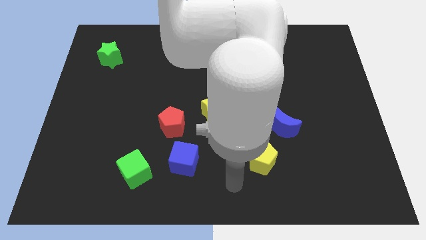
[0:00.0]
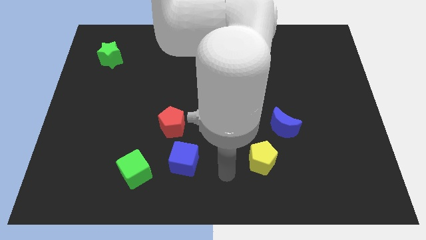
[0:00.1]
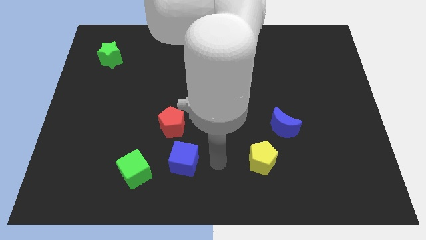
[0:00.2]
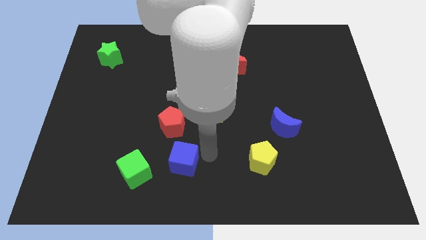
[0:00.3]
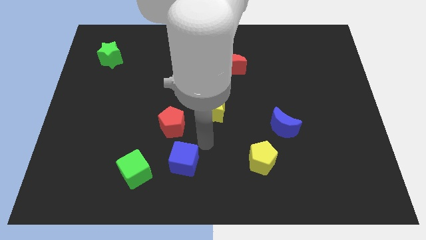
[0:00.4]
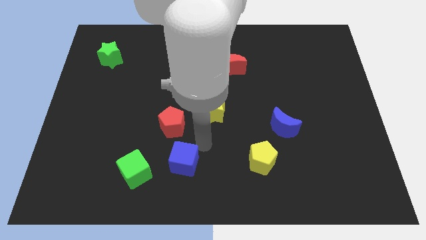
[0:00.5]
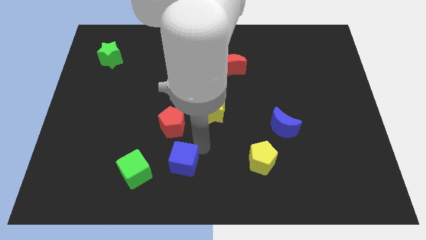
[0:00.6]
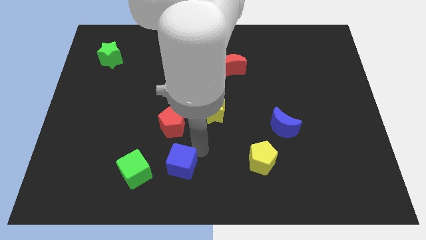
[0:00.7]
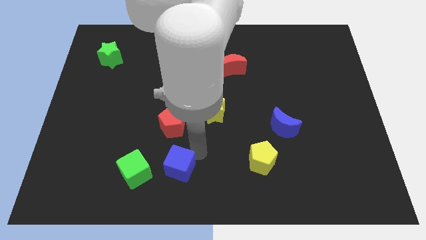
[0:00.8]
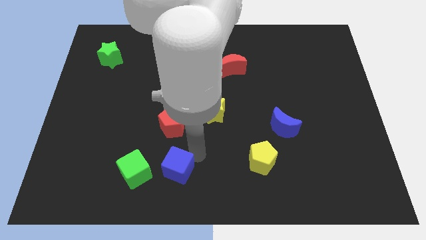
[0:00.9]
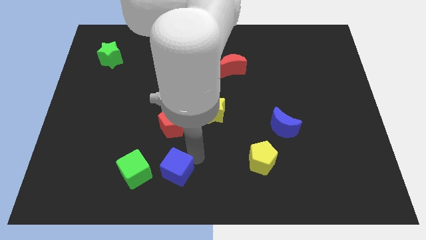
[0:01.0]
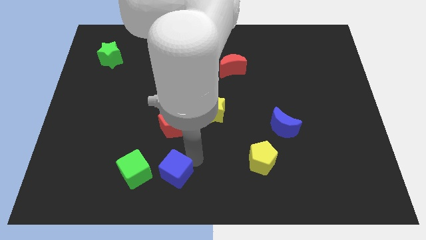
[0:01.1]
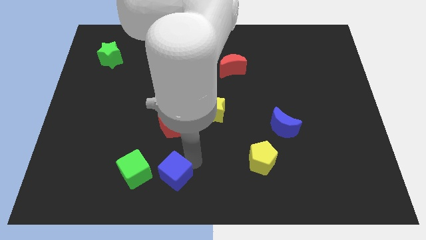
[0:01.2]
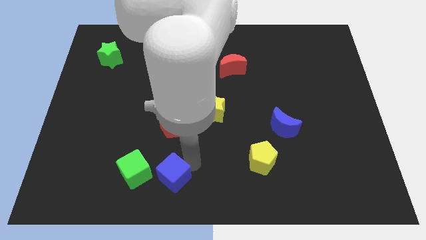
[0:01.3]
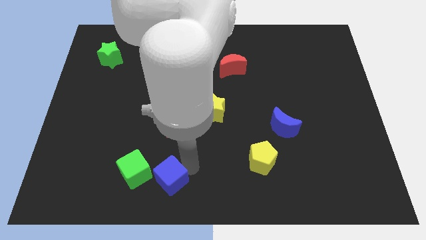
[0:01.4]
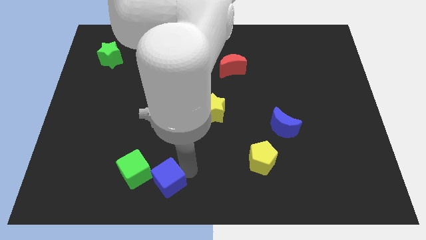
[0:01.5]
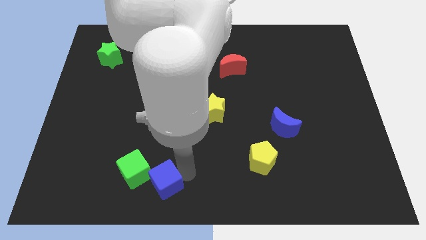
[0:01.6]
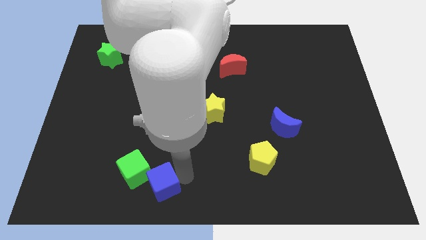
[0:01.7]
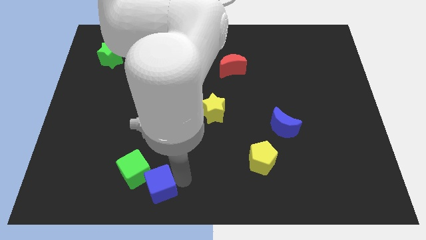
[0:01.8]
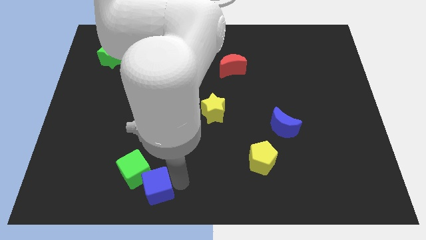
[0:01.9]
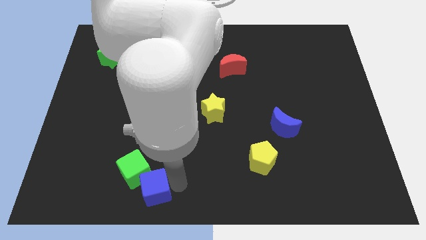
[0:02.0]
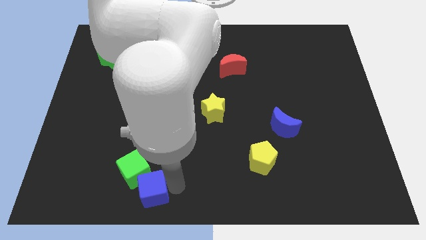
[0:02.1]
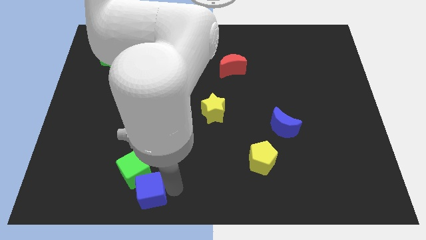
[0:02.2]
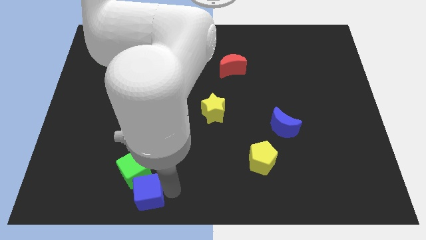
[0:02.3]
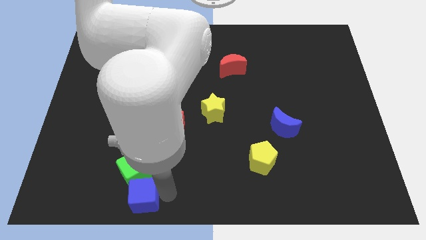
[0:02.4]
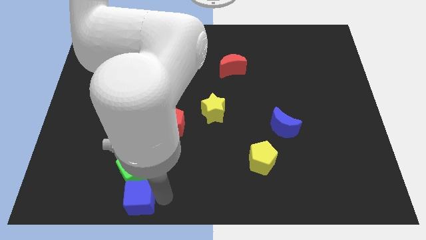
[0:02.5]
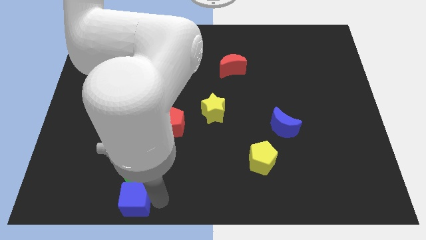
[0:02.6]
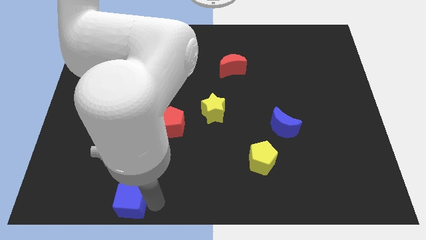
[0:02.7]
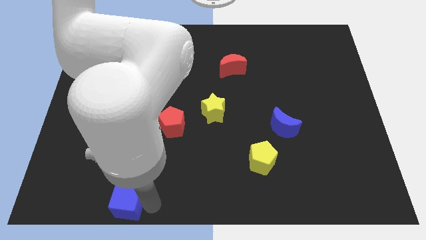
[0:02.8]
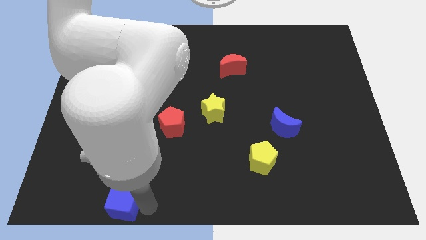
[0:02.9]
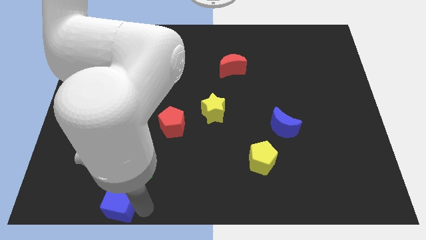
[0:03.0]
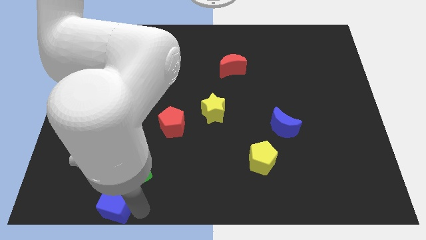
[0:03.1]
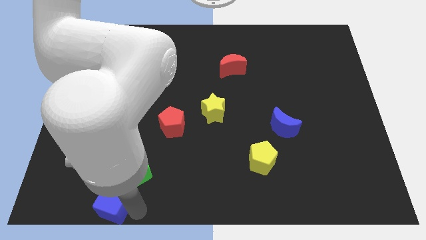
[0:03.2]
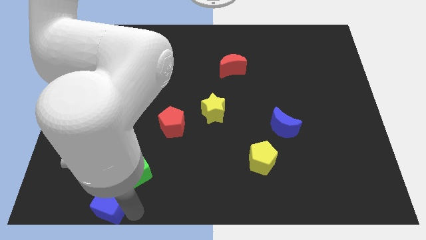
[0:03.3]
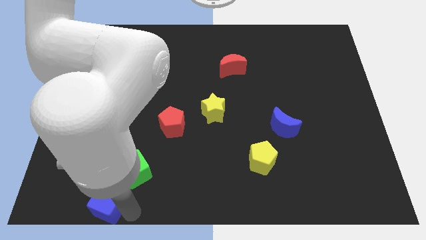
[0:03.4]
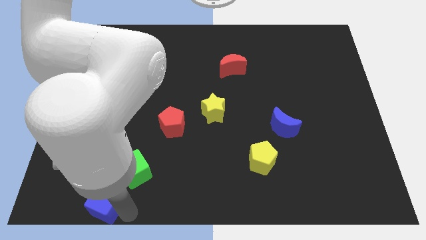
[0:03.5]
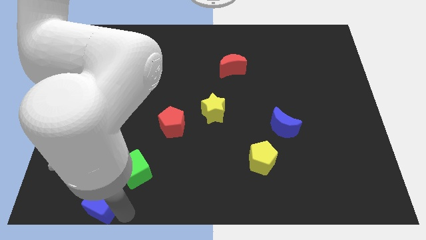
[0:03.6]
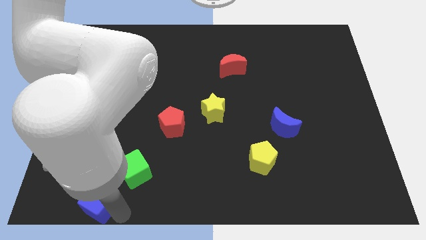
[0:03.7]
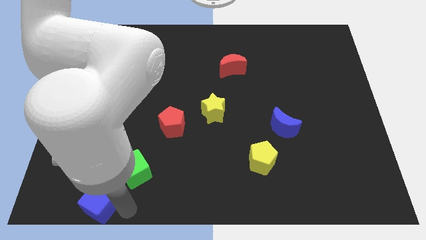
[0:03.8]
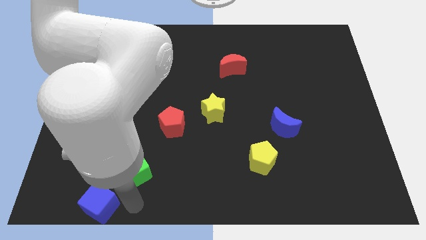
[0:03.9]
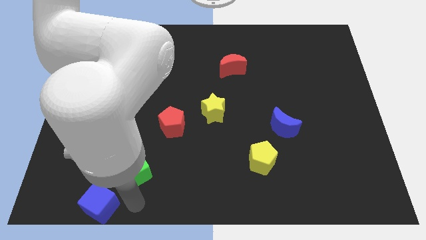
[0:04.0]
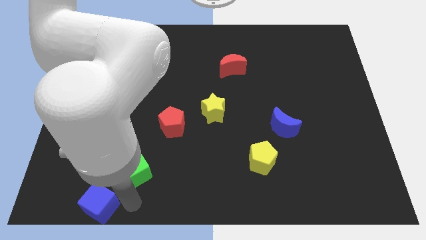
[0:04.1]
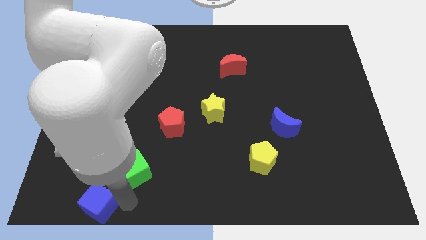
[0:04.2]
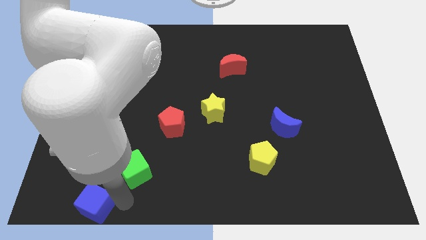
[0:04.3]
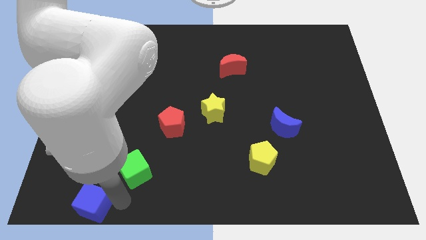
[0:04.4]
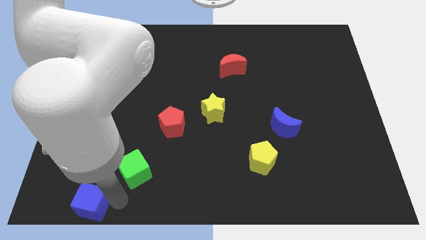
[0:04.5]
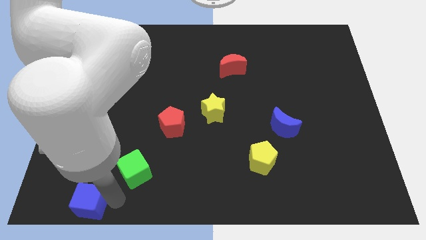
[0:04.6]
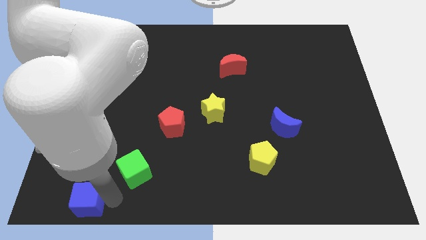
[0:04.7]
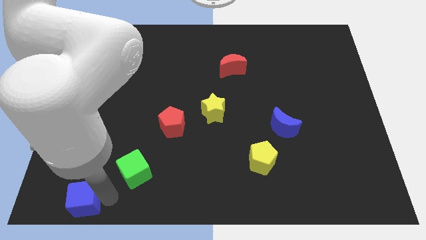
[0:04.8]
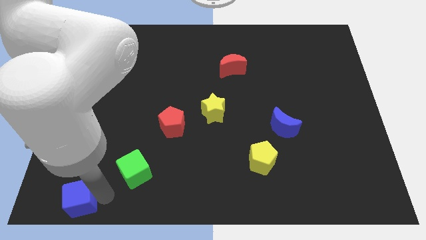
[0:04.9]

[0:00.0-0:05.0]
push the blue cube to the bottom left of the board
